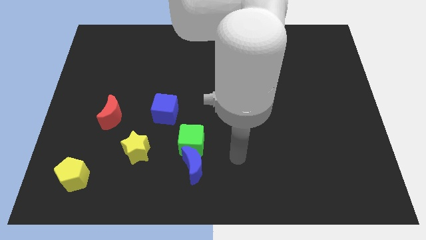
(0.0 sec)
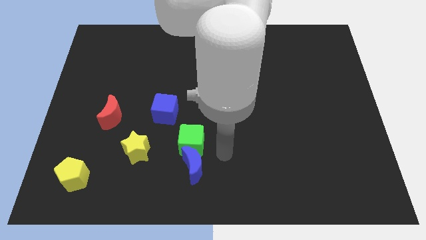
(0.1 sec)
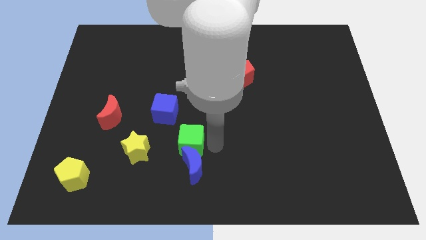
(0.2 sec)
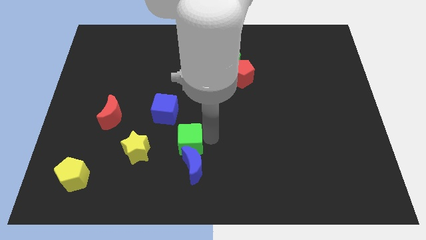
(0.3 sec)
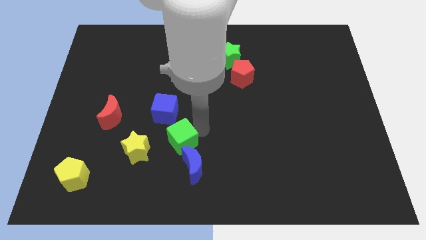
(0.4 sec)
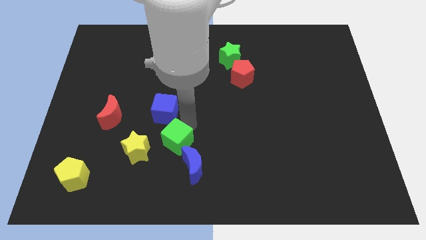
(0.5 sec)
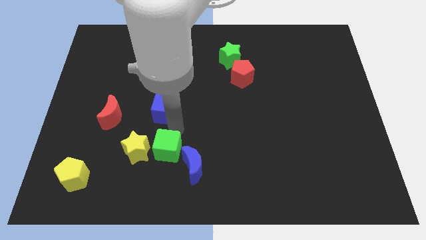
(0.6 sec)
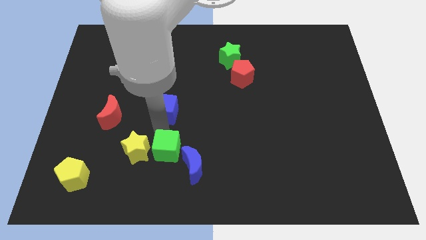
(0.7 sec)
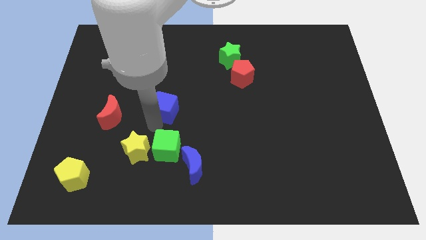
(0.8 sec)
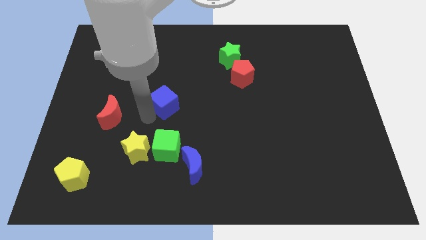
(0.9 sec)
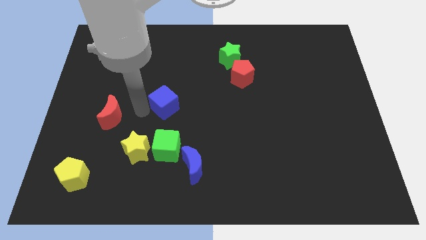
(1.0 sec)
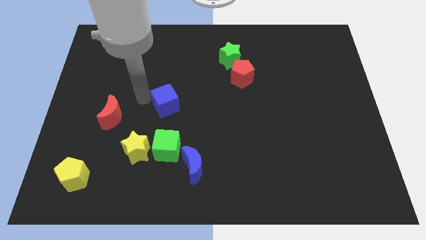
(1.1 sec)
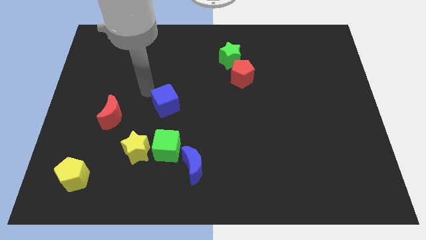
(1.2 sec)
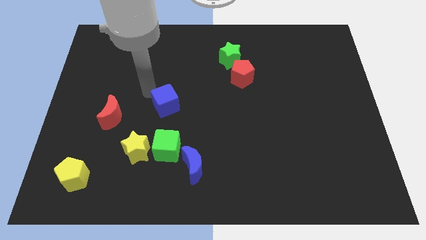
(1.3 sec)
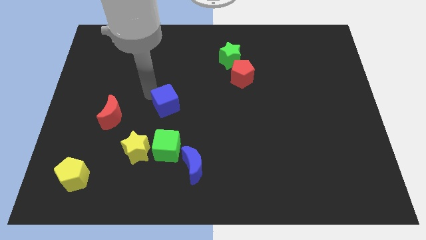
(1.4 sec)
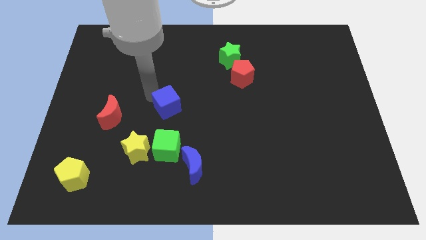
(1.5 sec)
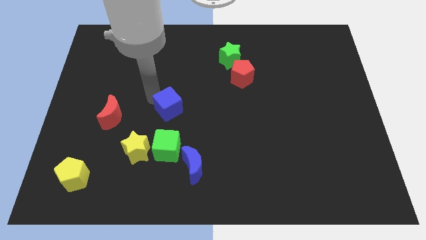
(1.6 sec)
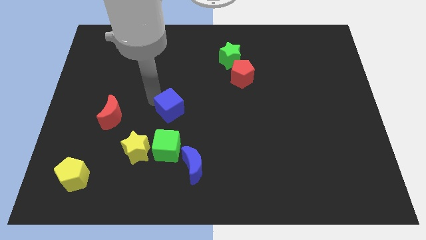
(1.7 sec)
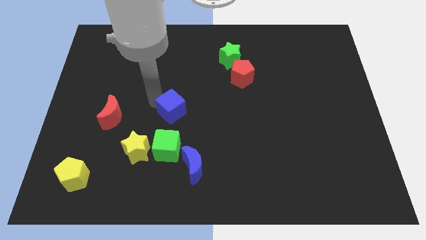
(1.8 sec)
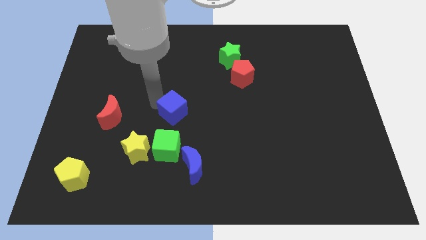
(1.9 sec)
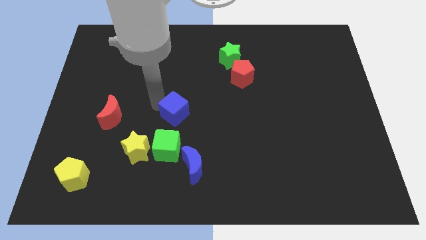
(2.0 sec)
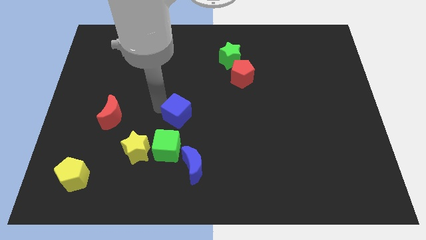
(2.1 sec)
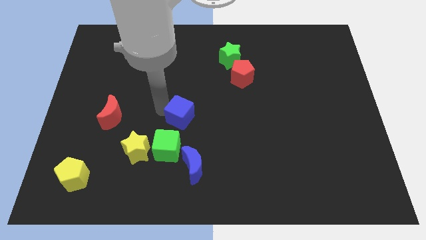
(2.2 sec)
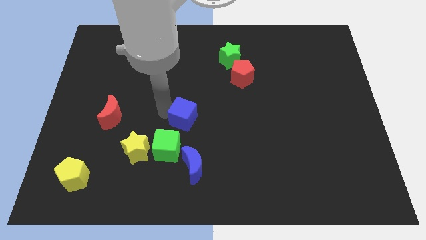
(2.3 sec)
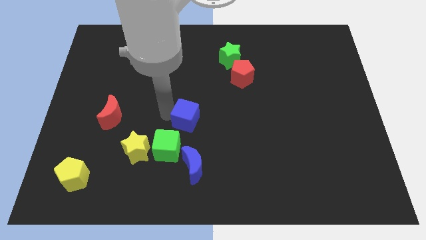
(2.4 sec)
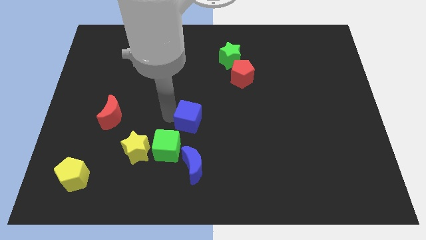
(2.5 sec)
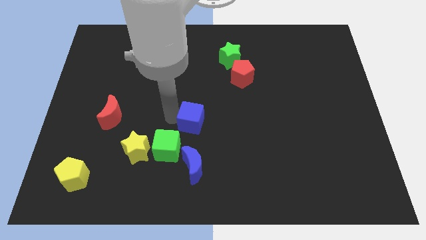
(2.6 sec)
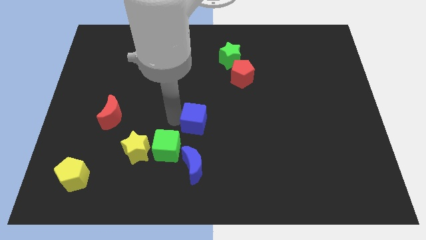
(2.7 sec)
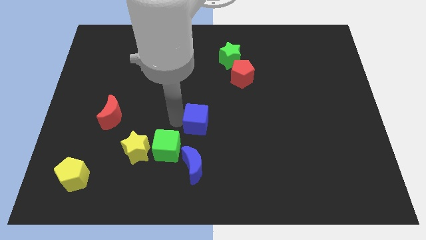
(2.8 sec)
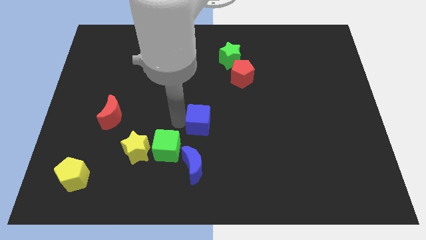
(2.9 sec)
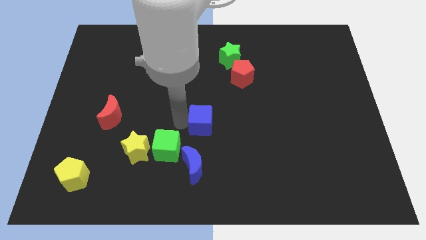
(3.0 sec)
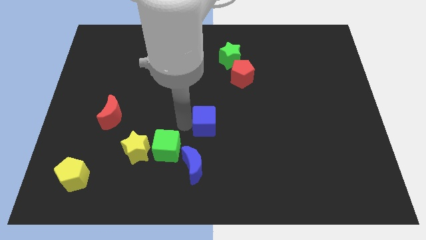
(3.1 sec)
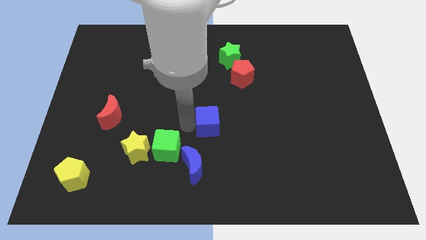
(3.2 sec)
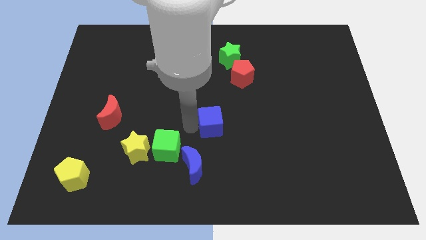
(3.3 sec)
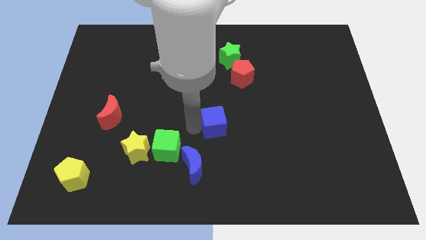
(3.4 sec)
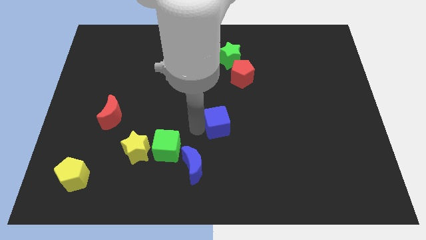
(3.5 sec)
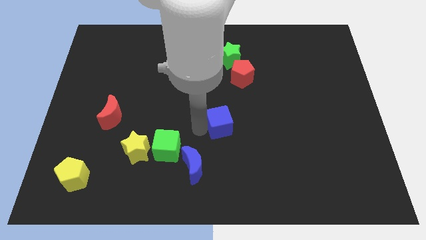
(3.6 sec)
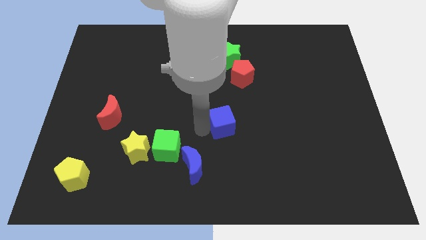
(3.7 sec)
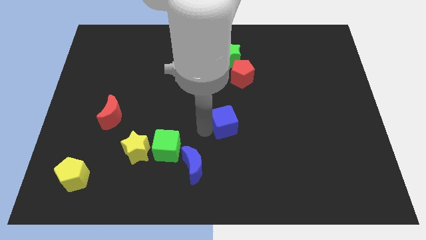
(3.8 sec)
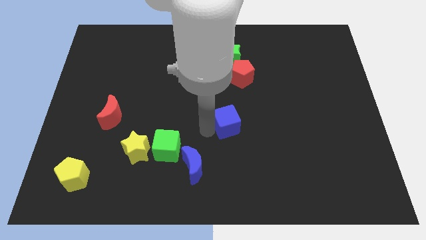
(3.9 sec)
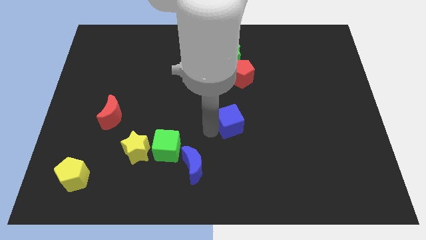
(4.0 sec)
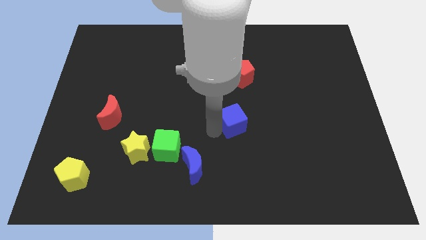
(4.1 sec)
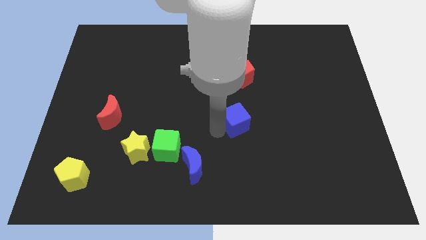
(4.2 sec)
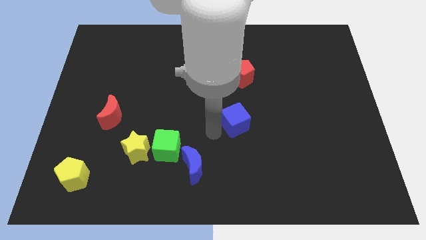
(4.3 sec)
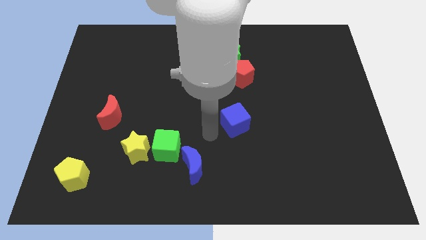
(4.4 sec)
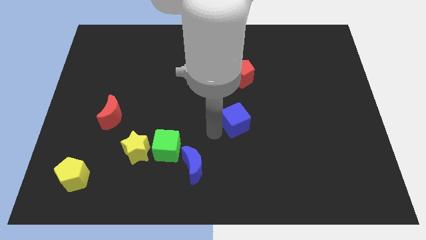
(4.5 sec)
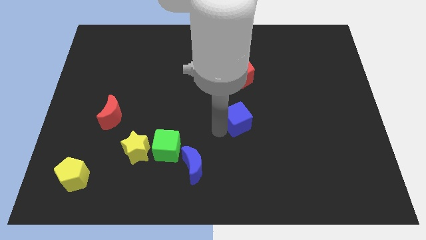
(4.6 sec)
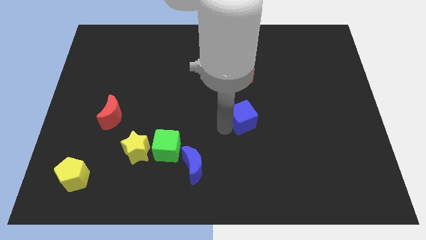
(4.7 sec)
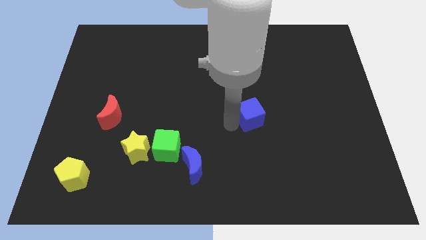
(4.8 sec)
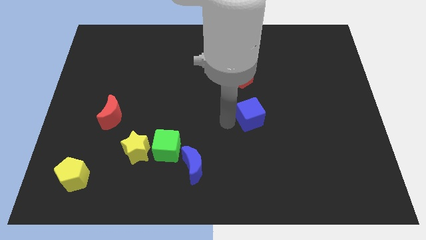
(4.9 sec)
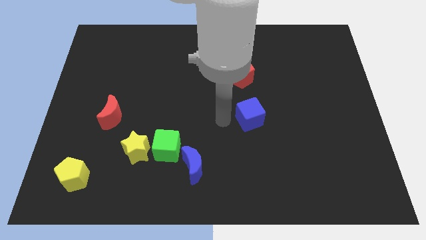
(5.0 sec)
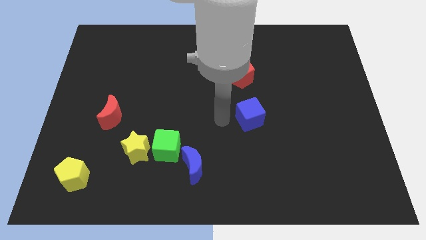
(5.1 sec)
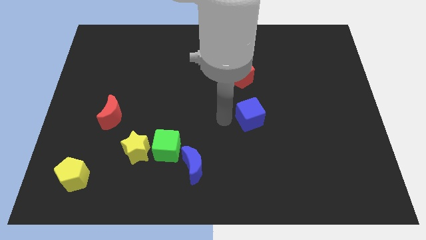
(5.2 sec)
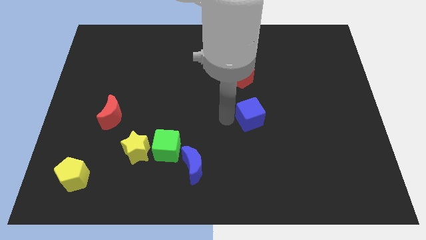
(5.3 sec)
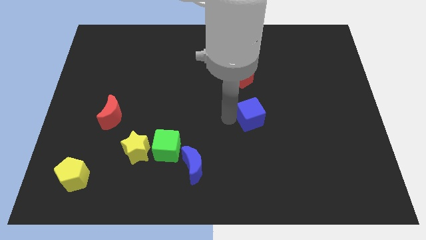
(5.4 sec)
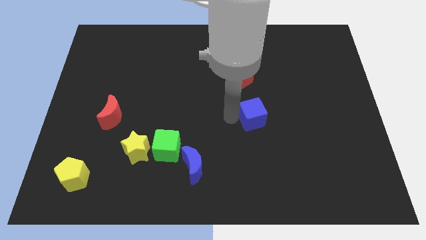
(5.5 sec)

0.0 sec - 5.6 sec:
slide the blue cube to the right

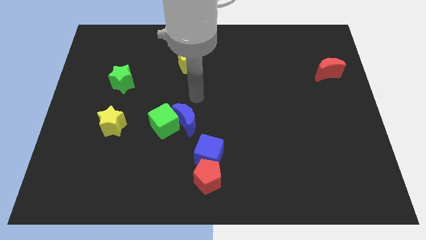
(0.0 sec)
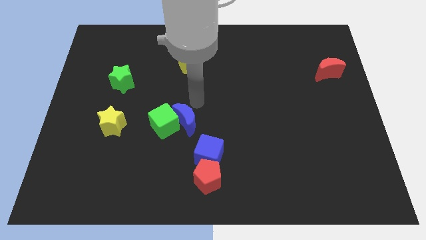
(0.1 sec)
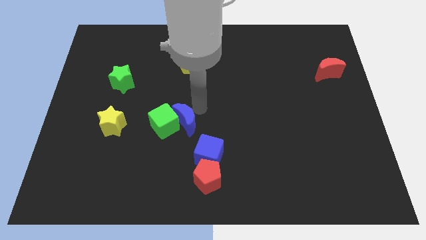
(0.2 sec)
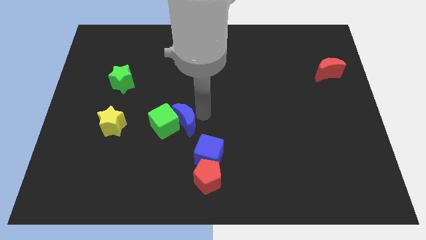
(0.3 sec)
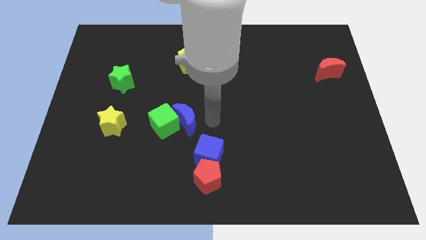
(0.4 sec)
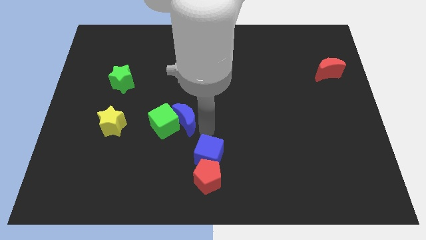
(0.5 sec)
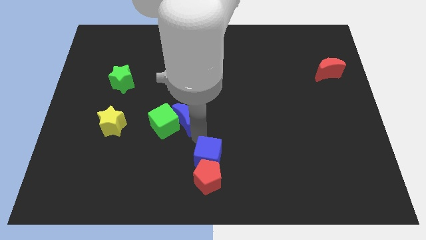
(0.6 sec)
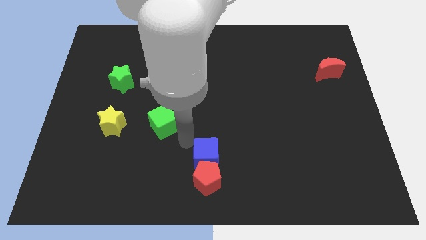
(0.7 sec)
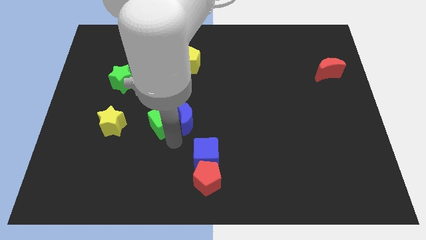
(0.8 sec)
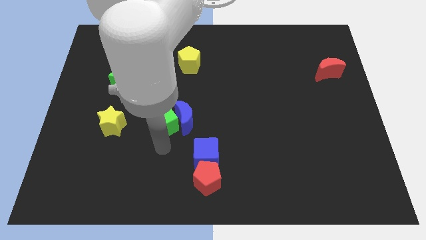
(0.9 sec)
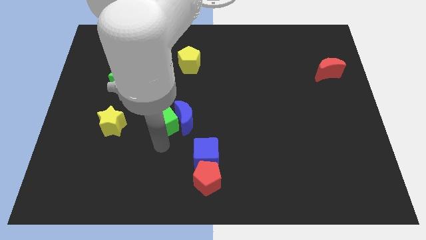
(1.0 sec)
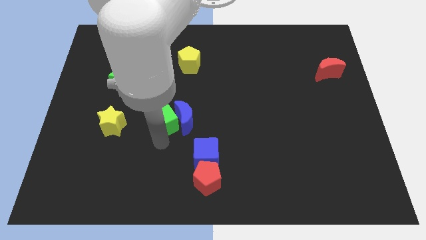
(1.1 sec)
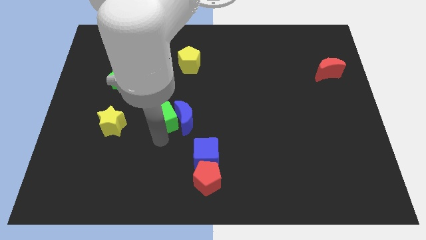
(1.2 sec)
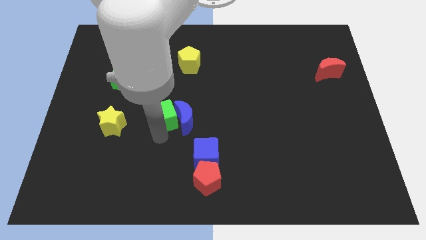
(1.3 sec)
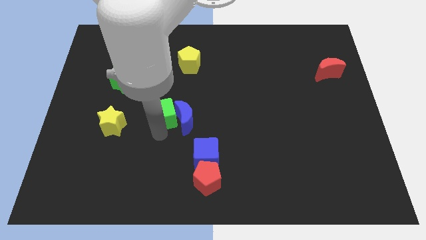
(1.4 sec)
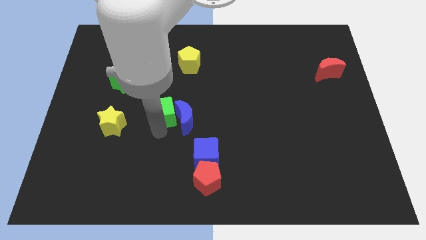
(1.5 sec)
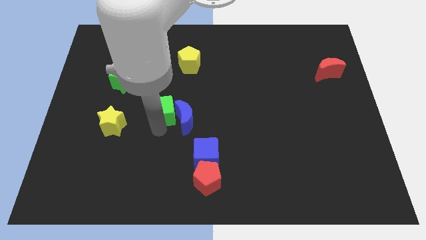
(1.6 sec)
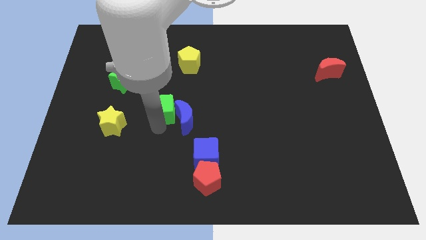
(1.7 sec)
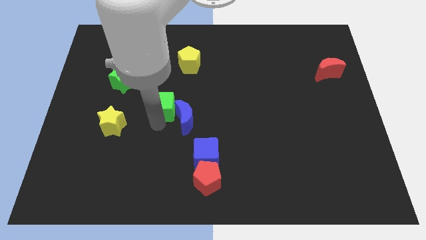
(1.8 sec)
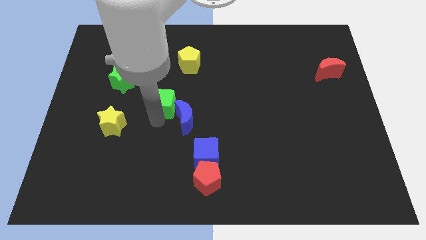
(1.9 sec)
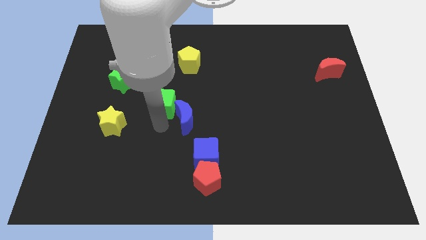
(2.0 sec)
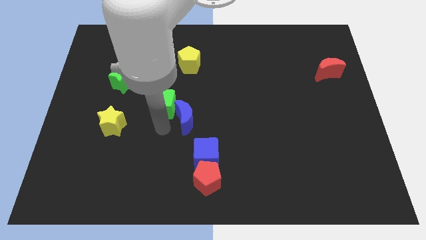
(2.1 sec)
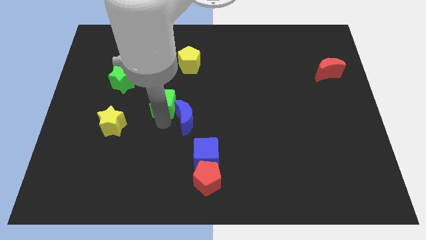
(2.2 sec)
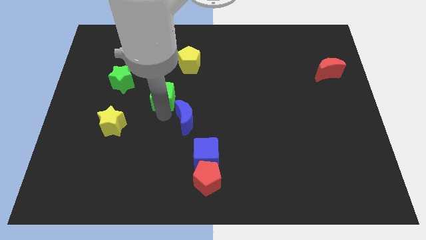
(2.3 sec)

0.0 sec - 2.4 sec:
push the green cube a little upwards

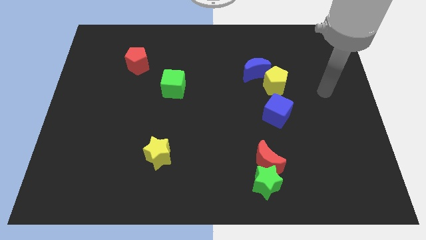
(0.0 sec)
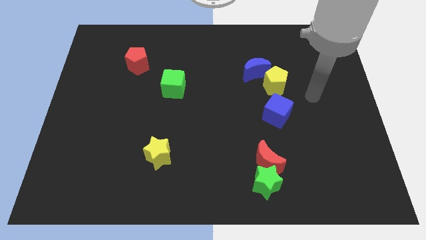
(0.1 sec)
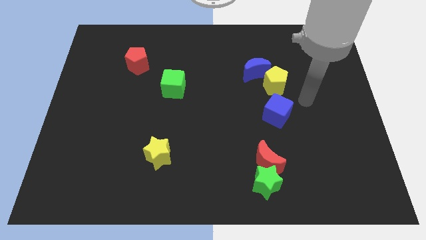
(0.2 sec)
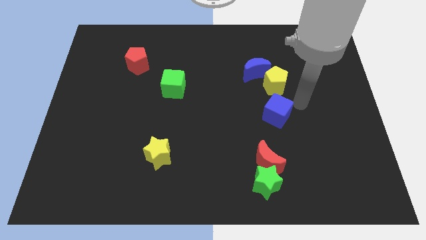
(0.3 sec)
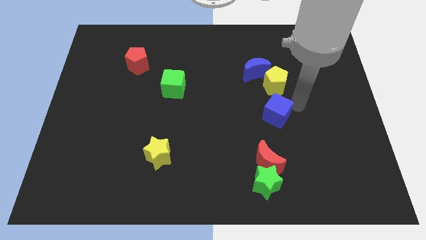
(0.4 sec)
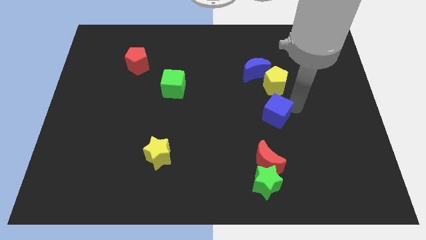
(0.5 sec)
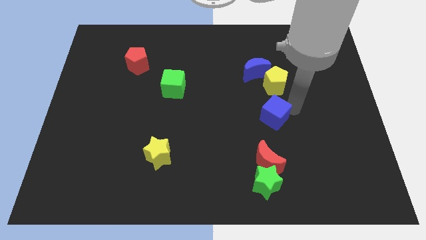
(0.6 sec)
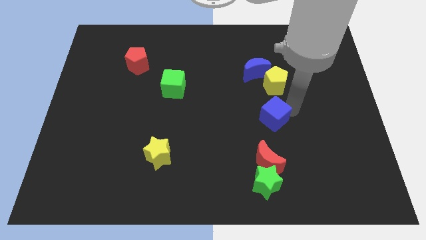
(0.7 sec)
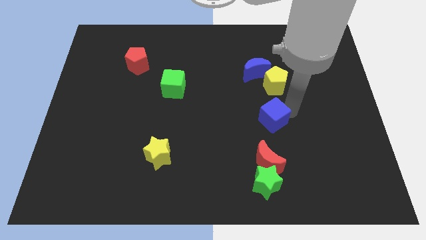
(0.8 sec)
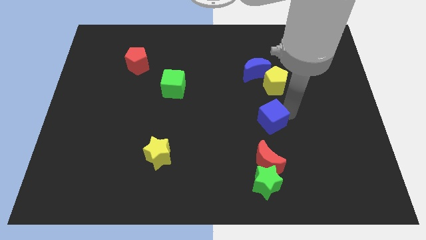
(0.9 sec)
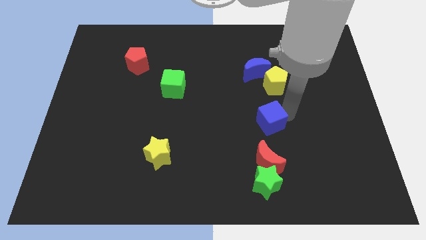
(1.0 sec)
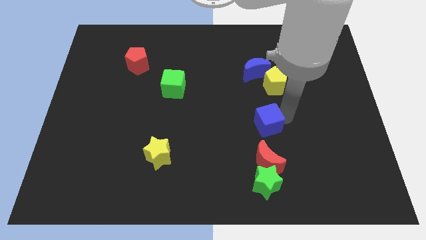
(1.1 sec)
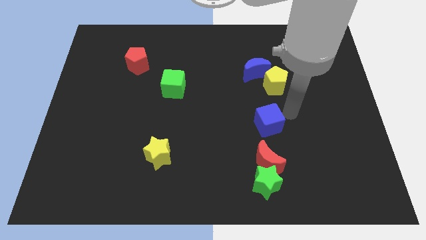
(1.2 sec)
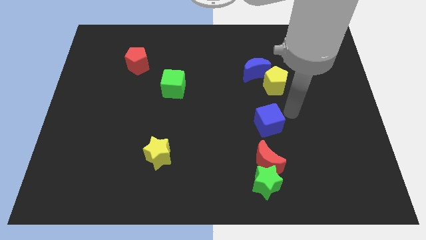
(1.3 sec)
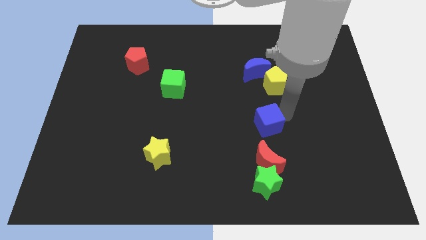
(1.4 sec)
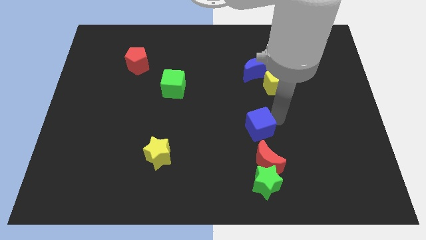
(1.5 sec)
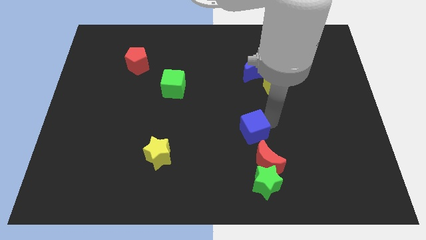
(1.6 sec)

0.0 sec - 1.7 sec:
move the blue cube somewhat diagonally down and left
